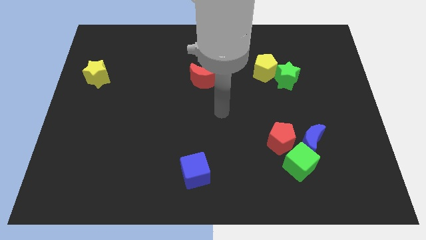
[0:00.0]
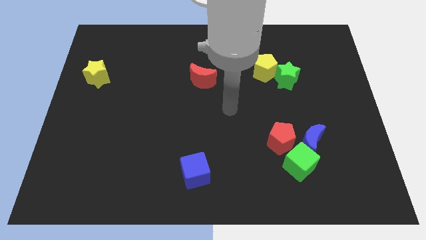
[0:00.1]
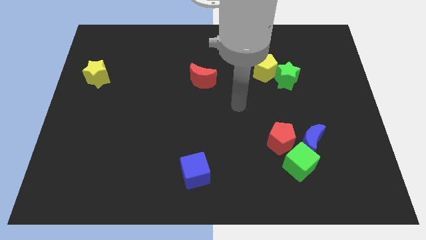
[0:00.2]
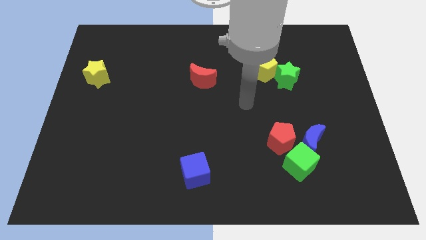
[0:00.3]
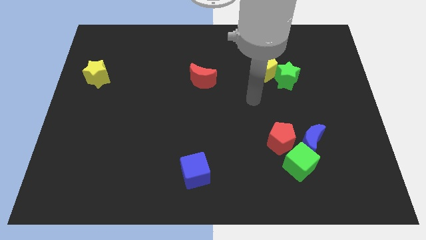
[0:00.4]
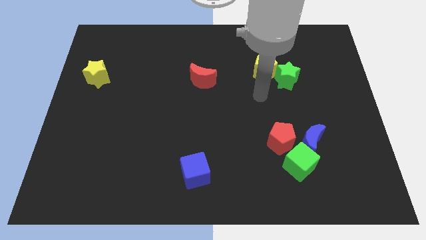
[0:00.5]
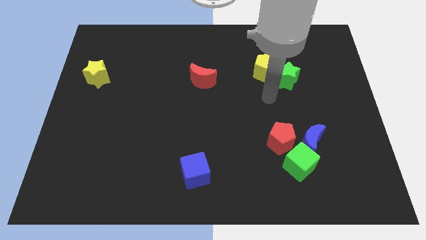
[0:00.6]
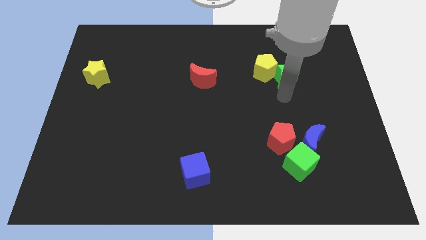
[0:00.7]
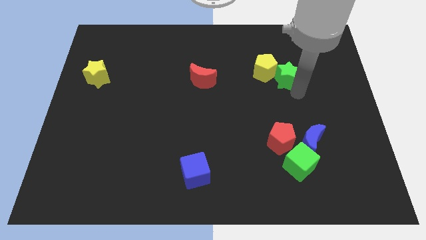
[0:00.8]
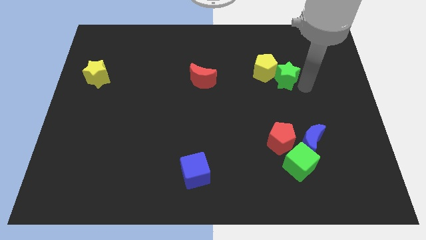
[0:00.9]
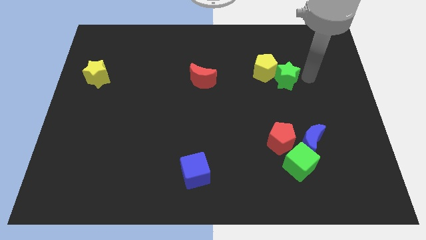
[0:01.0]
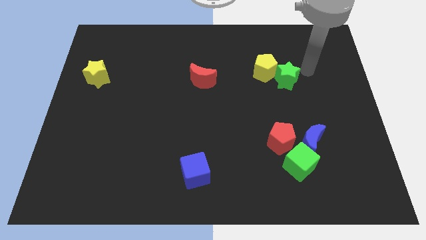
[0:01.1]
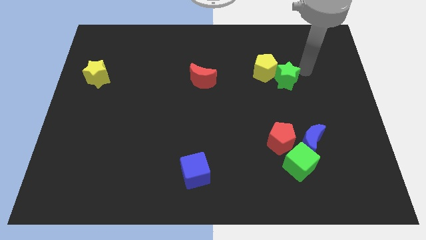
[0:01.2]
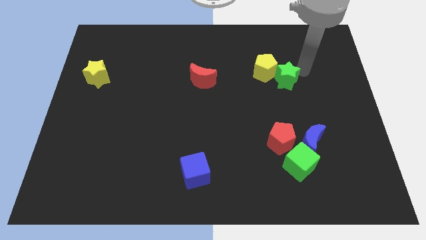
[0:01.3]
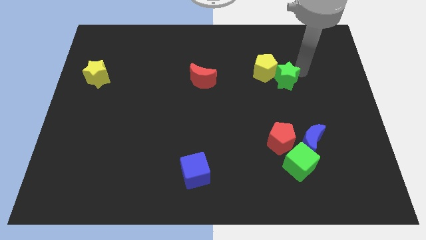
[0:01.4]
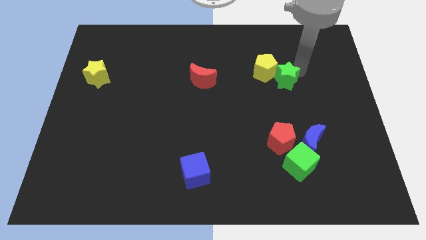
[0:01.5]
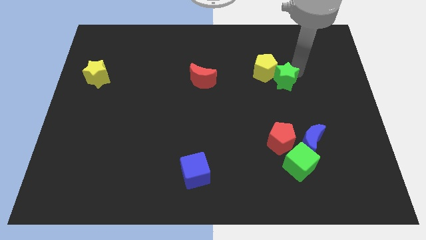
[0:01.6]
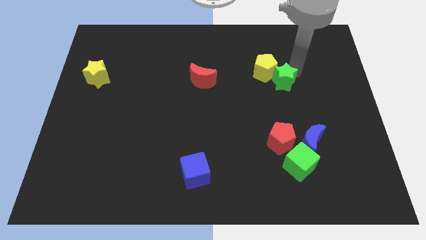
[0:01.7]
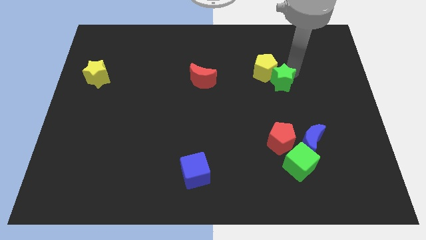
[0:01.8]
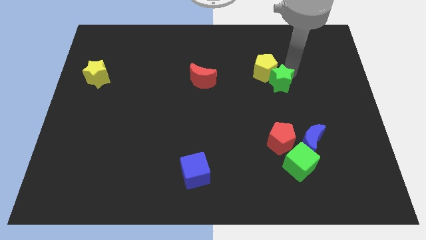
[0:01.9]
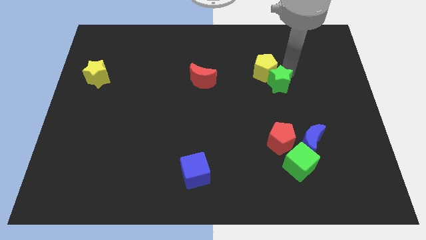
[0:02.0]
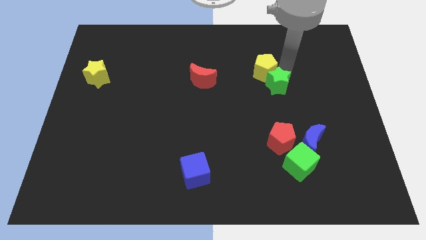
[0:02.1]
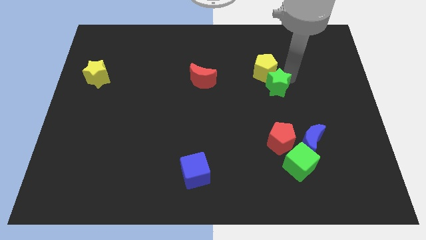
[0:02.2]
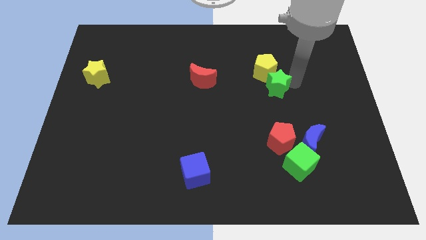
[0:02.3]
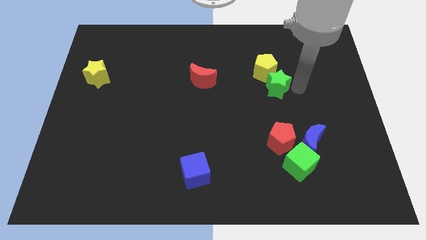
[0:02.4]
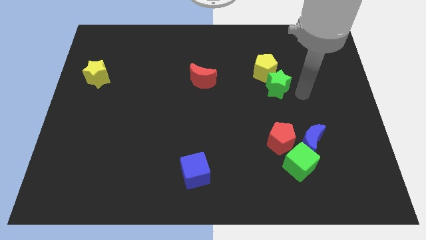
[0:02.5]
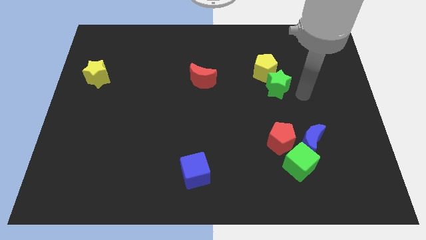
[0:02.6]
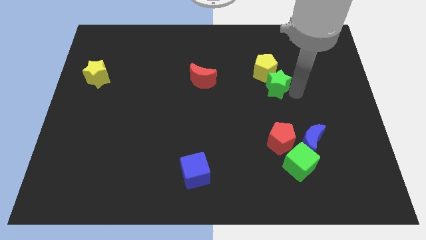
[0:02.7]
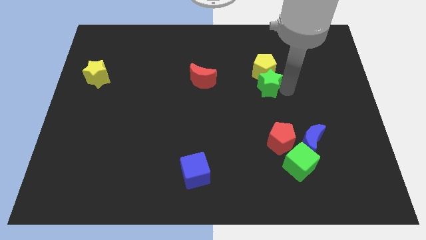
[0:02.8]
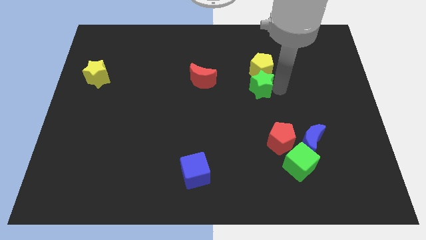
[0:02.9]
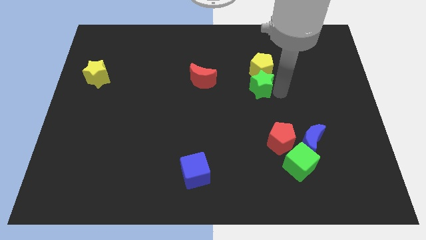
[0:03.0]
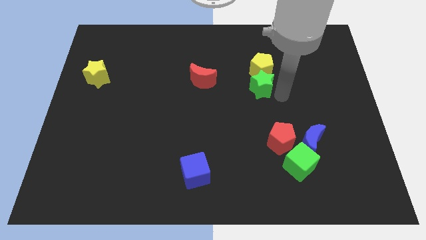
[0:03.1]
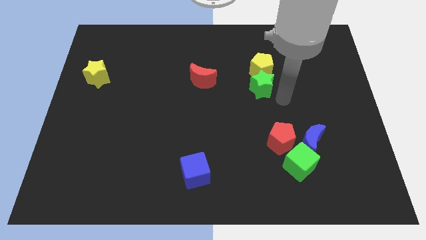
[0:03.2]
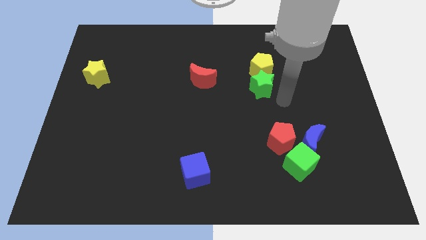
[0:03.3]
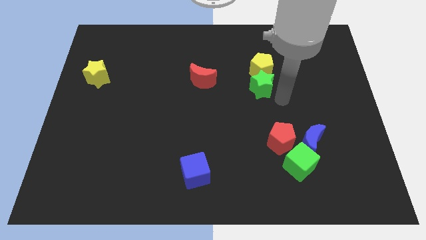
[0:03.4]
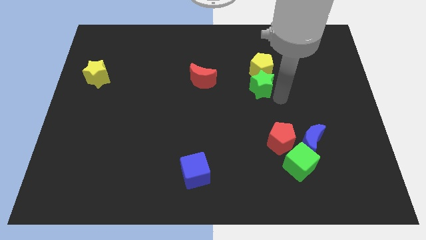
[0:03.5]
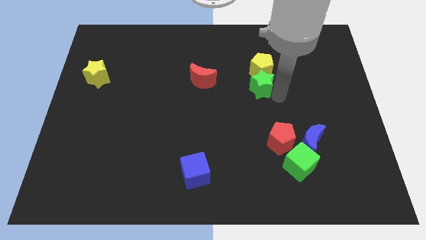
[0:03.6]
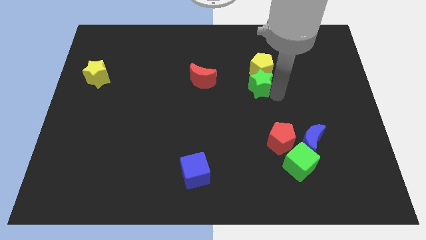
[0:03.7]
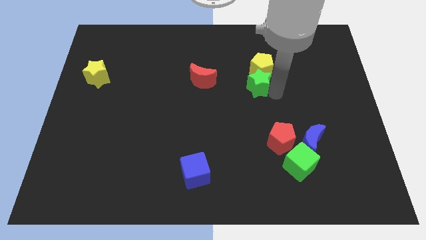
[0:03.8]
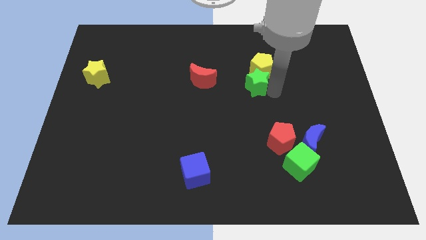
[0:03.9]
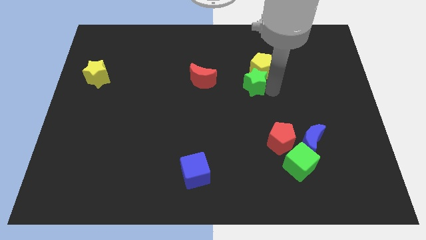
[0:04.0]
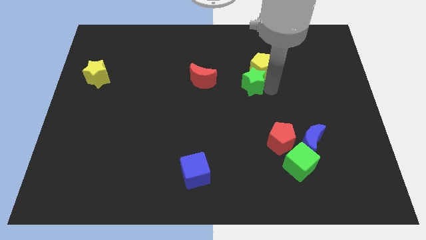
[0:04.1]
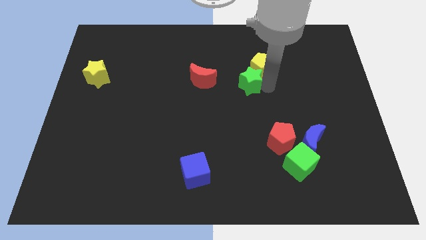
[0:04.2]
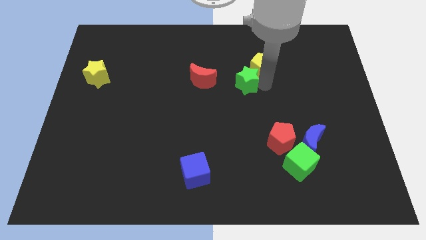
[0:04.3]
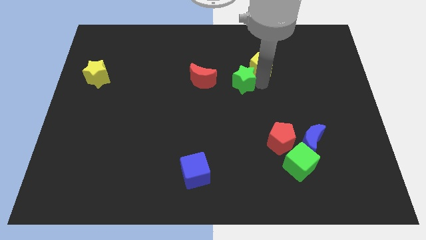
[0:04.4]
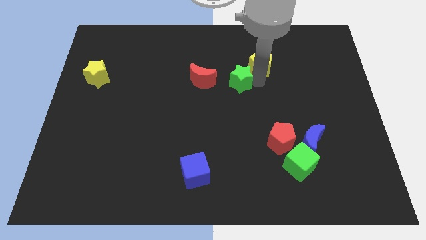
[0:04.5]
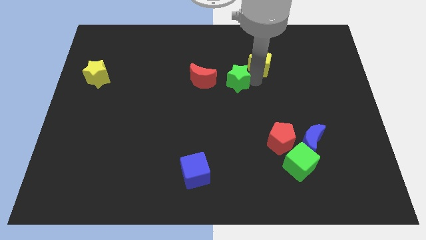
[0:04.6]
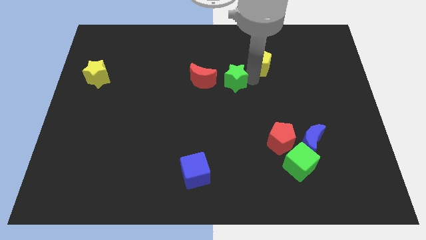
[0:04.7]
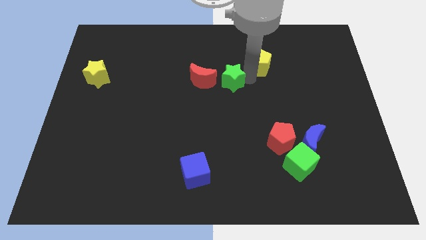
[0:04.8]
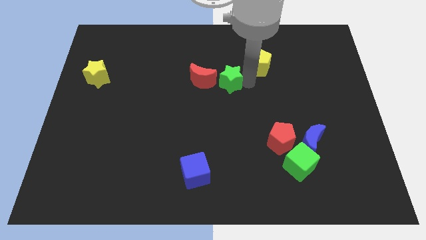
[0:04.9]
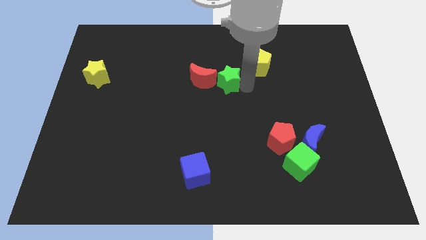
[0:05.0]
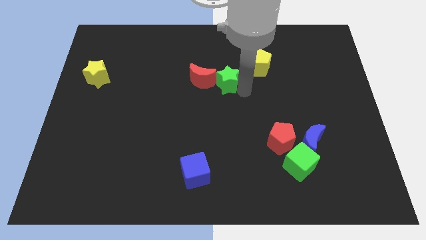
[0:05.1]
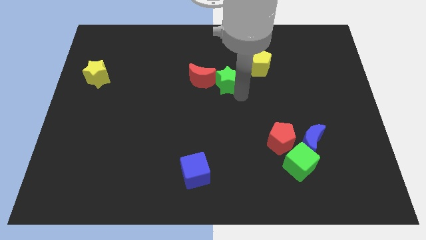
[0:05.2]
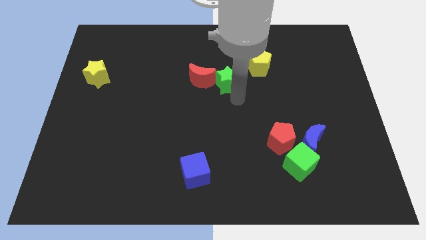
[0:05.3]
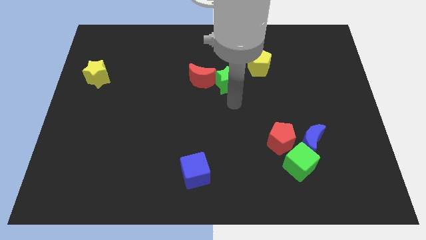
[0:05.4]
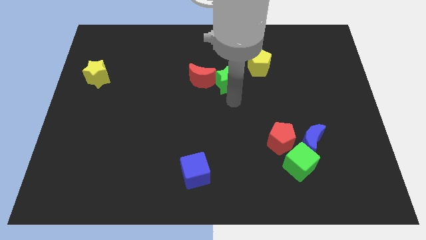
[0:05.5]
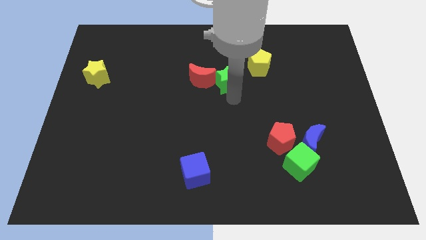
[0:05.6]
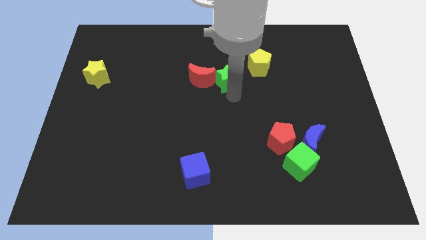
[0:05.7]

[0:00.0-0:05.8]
move the green star diagonally up and to the right of the red moon

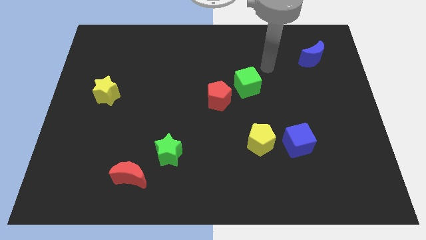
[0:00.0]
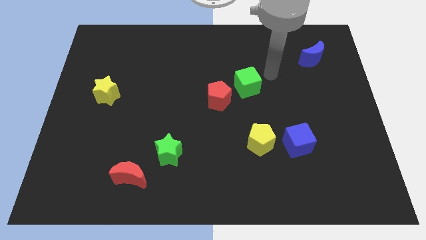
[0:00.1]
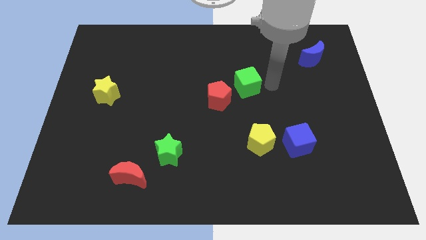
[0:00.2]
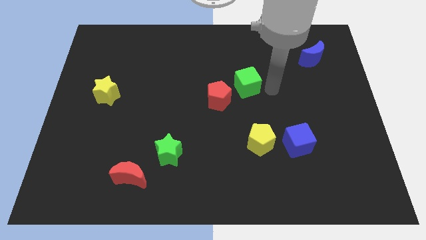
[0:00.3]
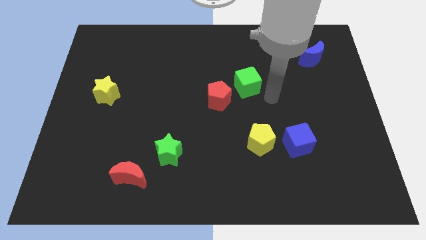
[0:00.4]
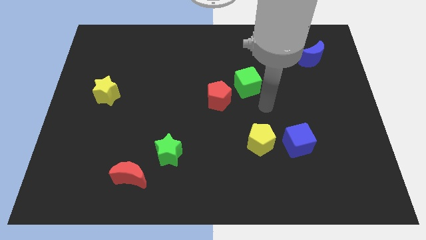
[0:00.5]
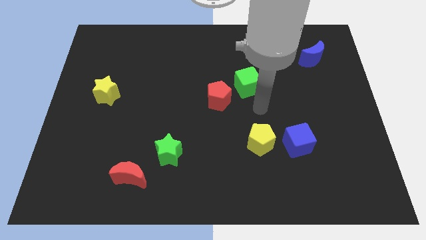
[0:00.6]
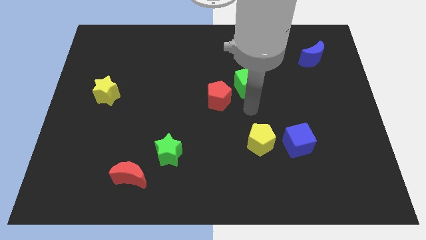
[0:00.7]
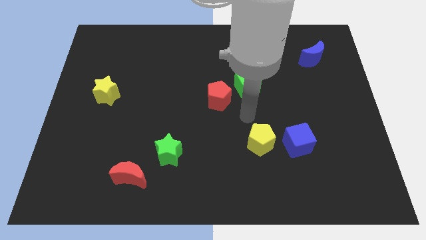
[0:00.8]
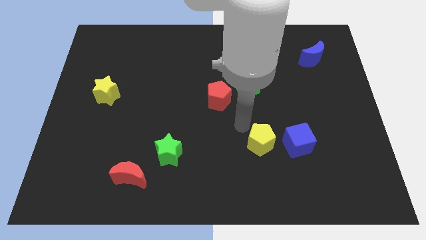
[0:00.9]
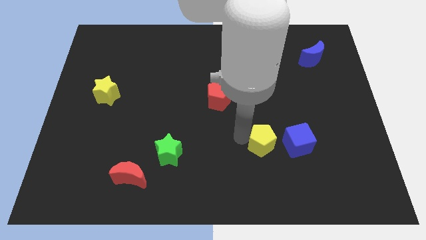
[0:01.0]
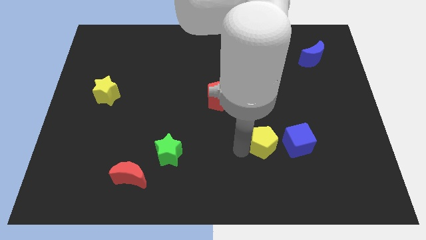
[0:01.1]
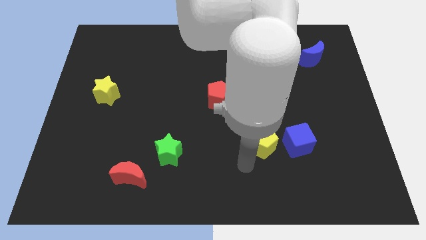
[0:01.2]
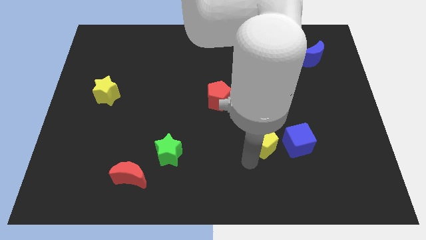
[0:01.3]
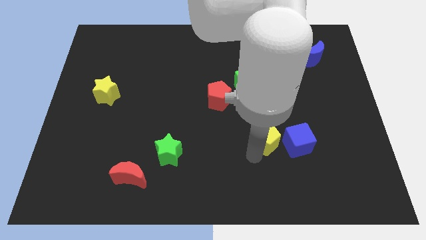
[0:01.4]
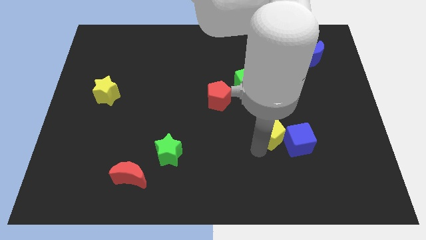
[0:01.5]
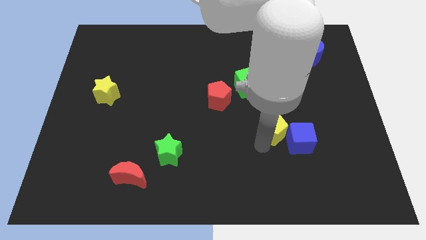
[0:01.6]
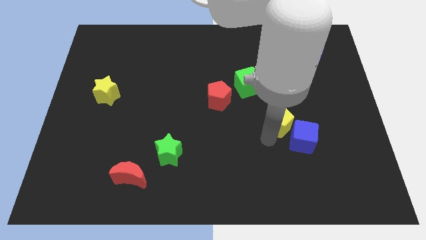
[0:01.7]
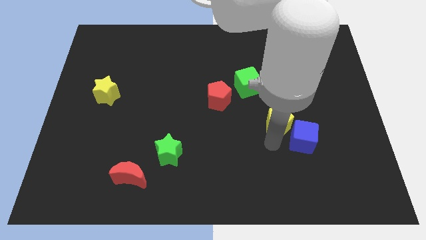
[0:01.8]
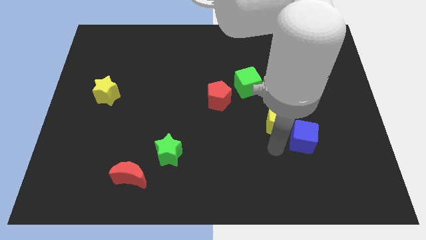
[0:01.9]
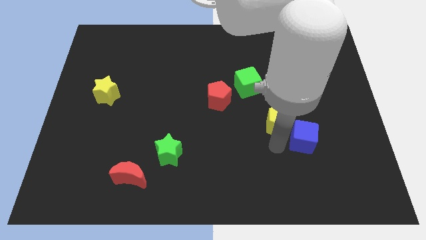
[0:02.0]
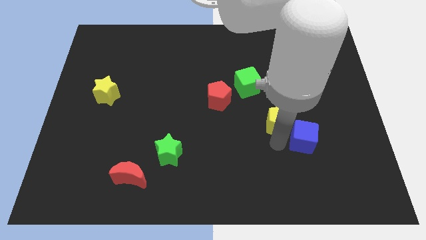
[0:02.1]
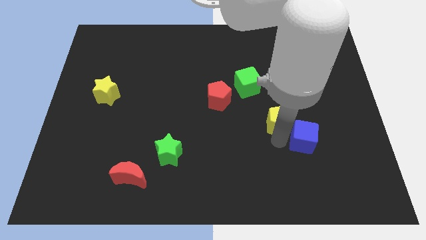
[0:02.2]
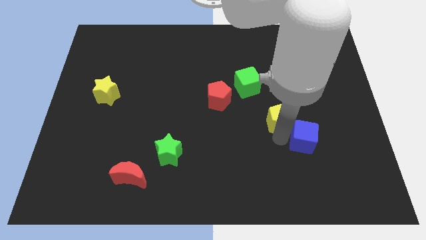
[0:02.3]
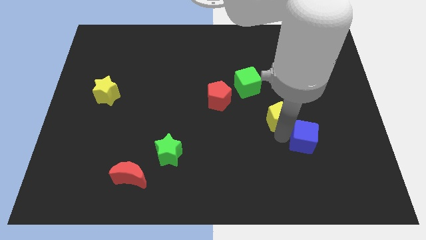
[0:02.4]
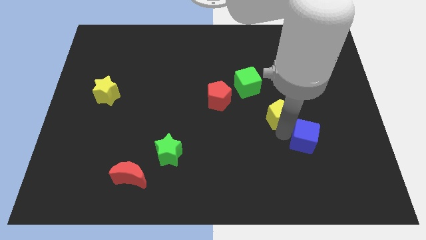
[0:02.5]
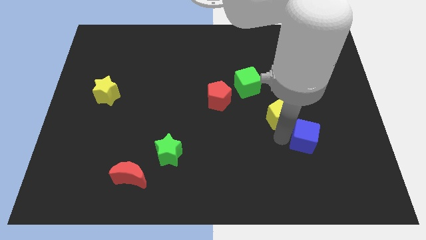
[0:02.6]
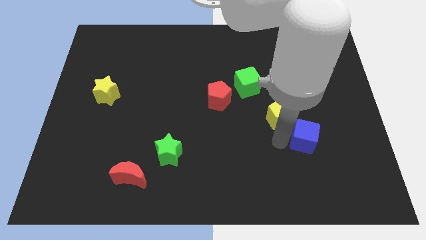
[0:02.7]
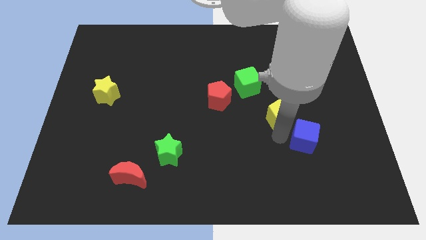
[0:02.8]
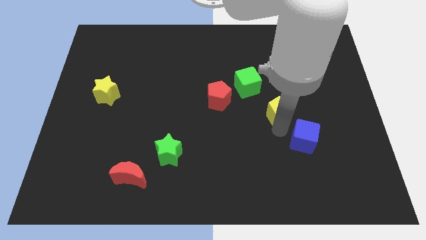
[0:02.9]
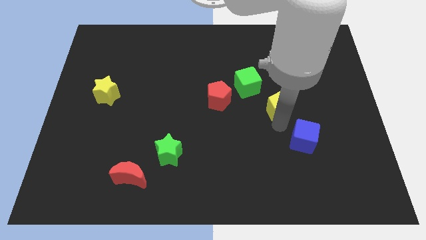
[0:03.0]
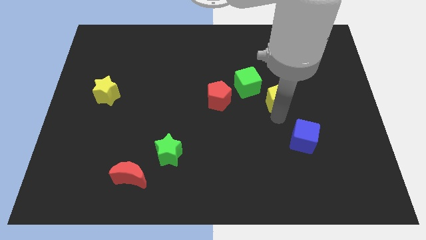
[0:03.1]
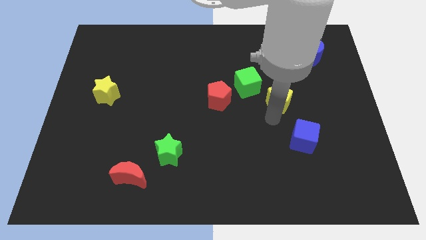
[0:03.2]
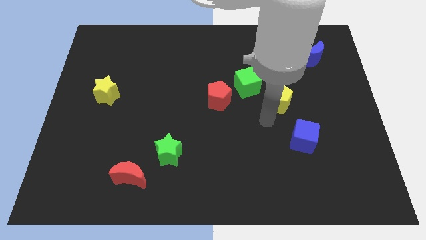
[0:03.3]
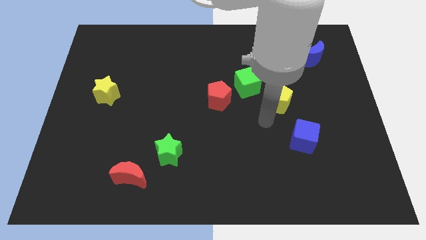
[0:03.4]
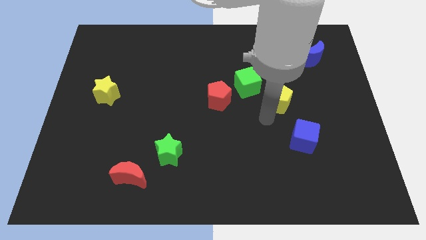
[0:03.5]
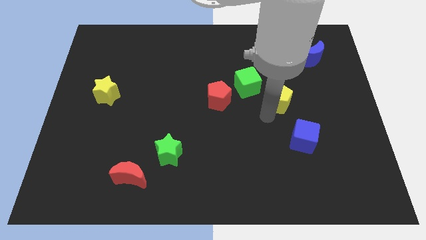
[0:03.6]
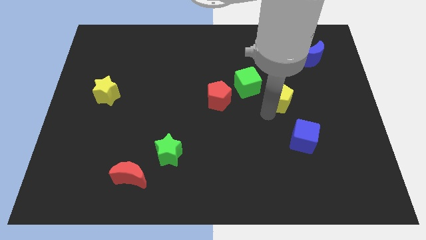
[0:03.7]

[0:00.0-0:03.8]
move the yellow pentagon to the right of the green cube
